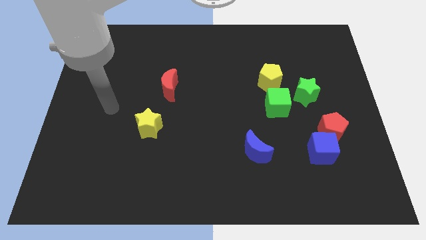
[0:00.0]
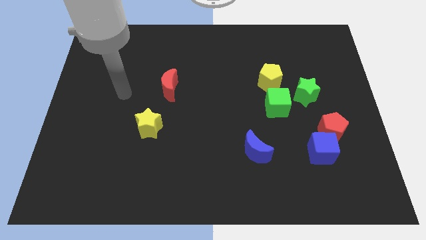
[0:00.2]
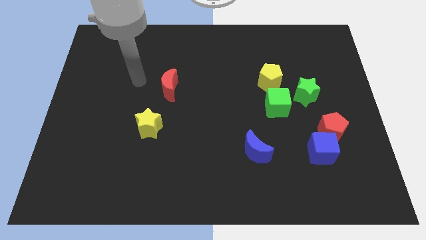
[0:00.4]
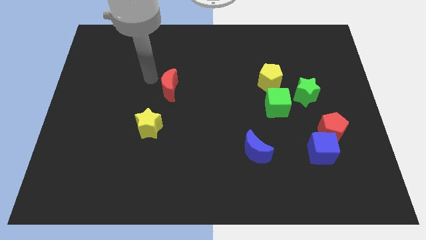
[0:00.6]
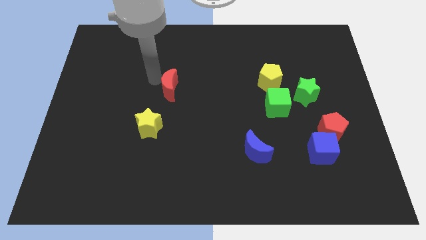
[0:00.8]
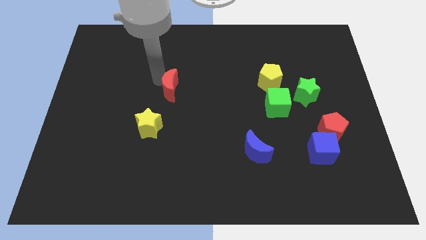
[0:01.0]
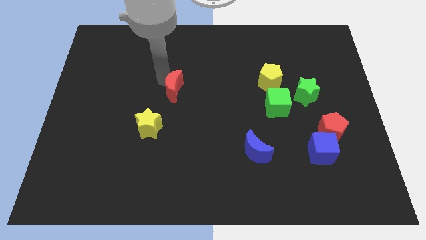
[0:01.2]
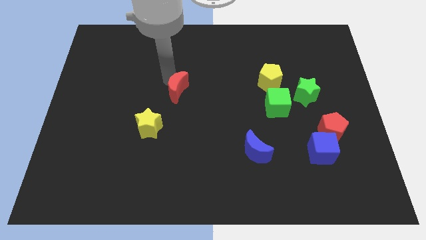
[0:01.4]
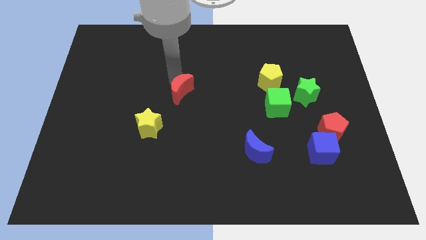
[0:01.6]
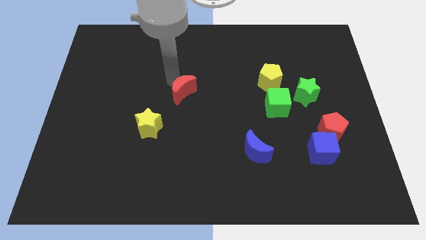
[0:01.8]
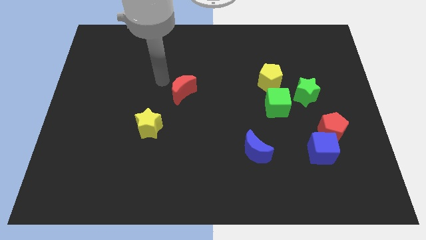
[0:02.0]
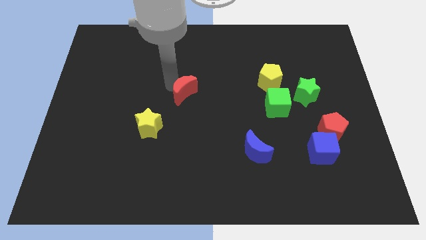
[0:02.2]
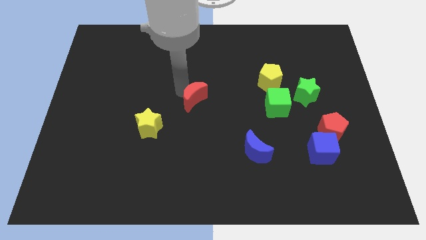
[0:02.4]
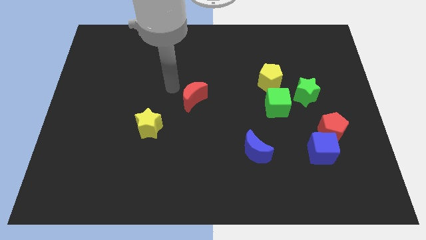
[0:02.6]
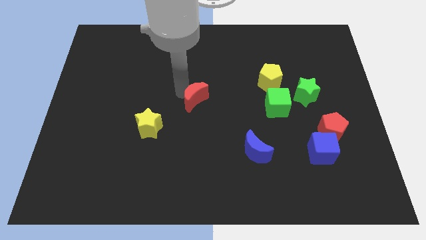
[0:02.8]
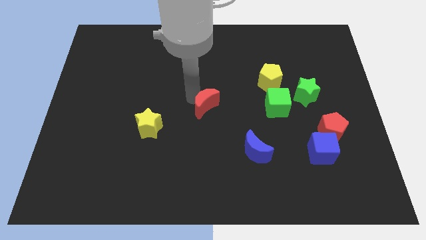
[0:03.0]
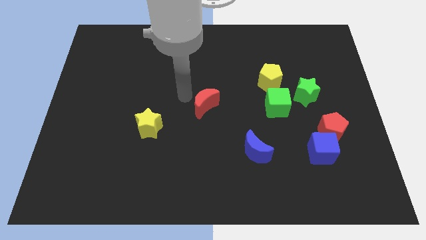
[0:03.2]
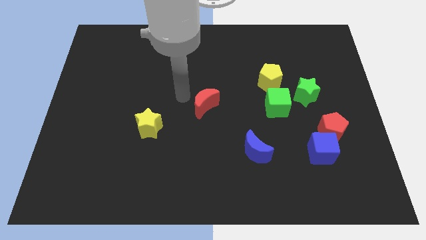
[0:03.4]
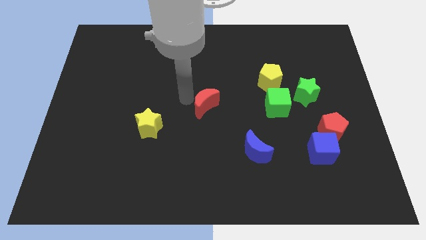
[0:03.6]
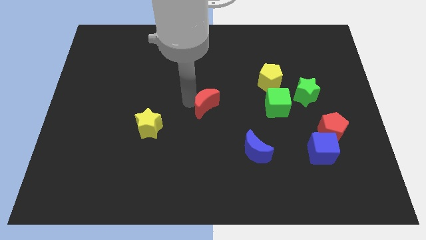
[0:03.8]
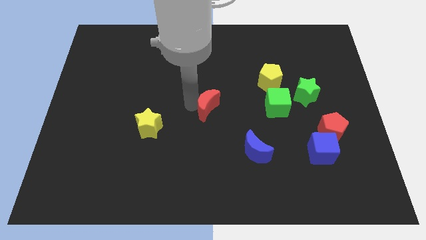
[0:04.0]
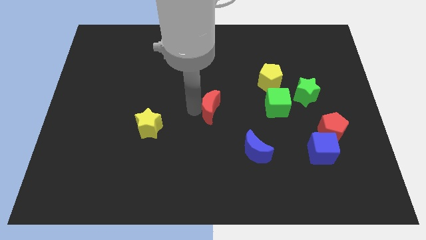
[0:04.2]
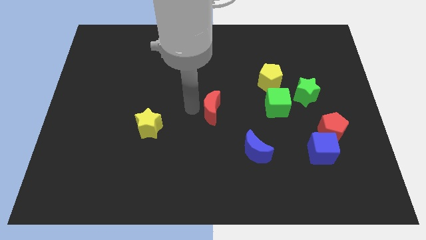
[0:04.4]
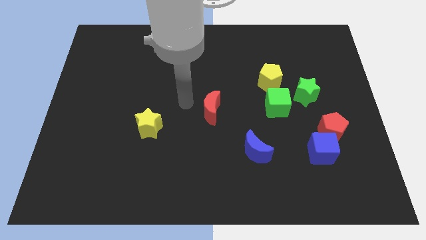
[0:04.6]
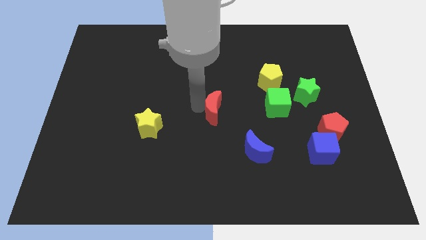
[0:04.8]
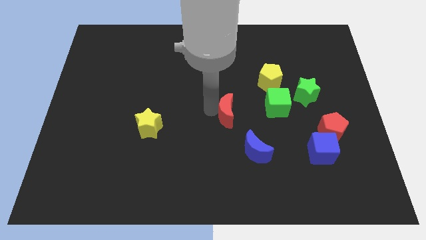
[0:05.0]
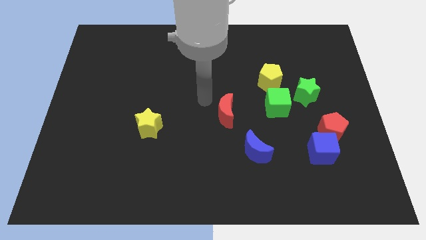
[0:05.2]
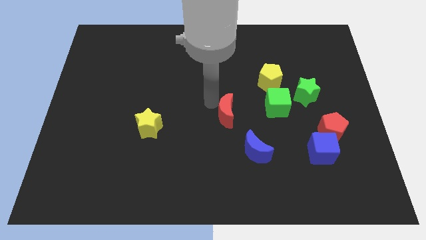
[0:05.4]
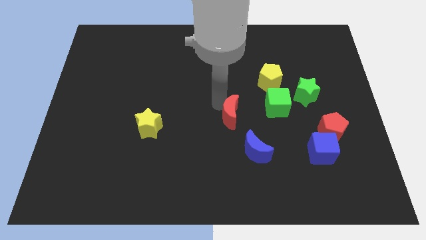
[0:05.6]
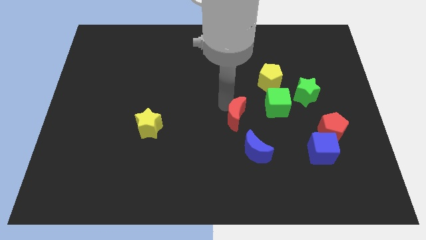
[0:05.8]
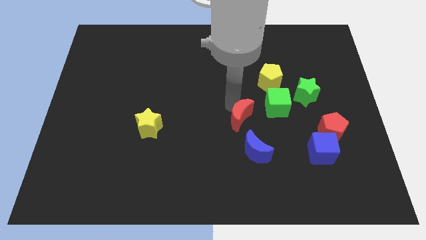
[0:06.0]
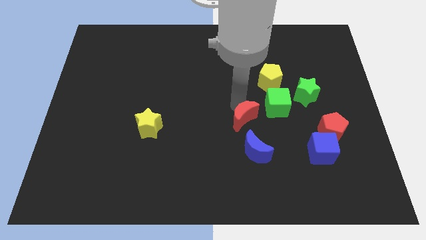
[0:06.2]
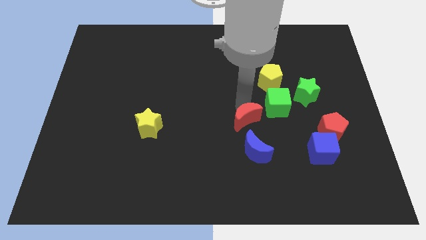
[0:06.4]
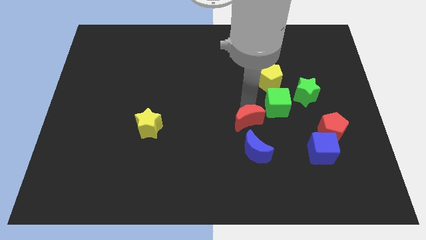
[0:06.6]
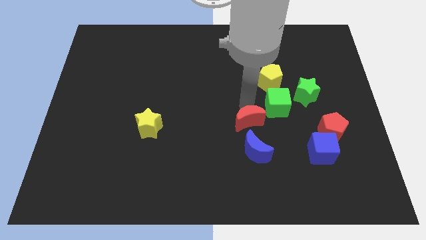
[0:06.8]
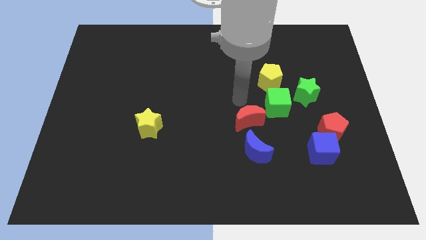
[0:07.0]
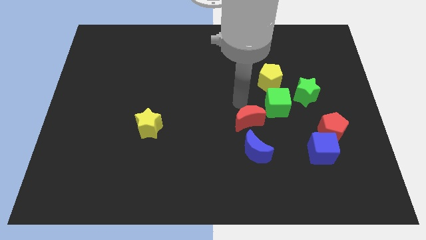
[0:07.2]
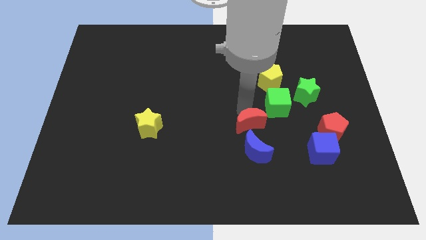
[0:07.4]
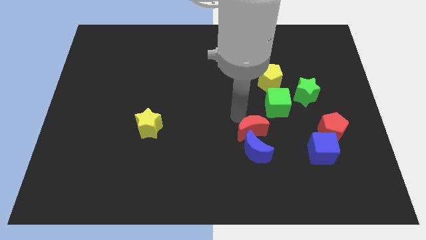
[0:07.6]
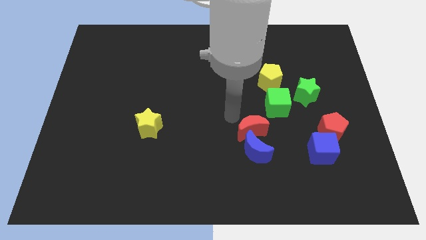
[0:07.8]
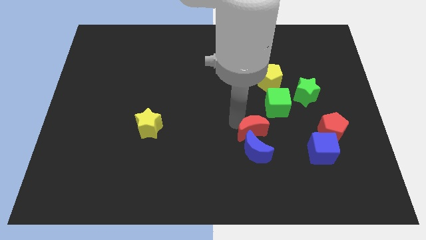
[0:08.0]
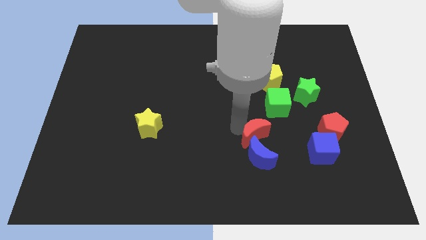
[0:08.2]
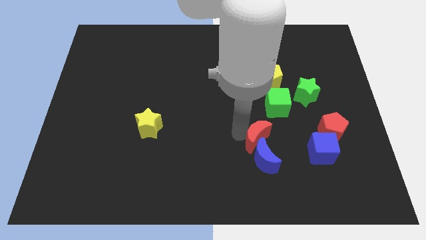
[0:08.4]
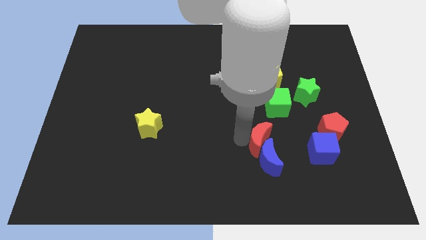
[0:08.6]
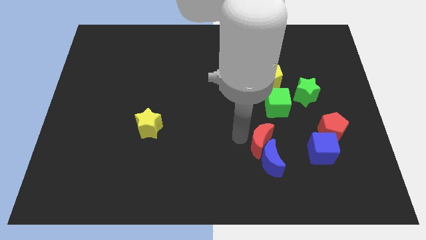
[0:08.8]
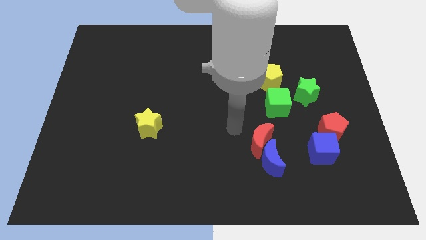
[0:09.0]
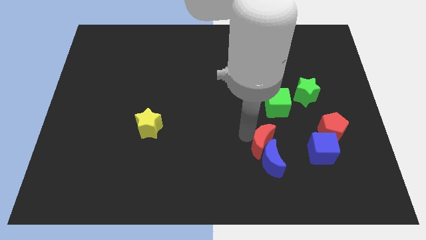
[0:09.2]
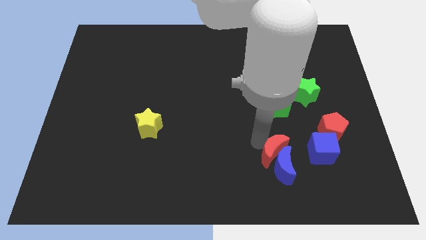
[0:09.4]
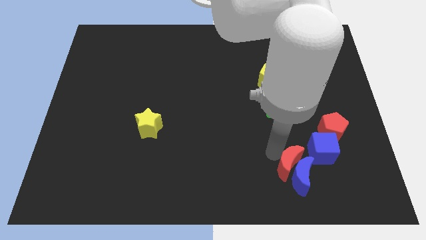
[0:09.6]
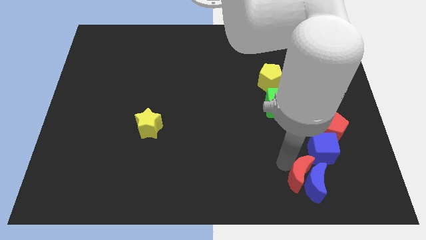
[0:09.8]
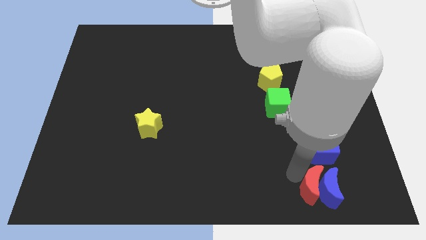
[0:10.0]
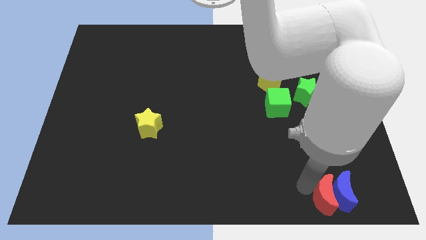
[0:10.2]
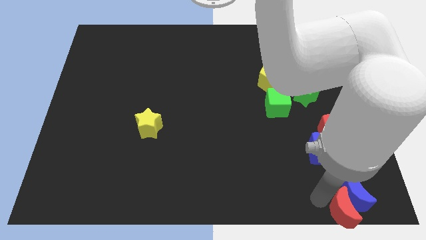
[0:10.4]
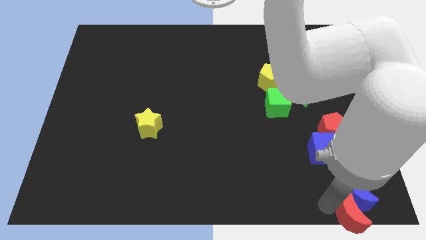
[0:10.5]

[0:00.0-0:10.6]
slide the red moon to the bottom right

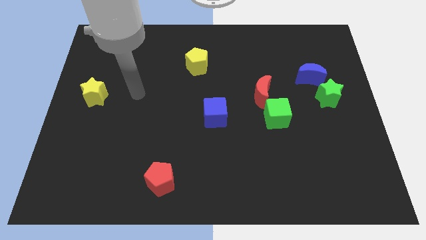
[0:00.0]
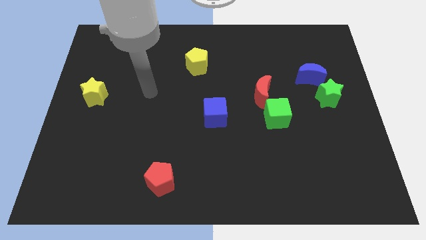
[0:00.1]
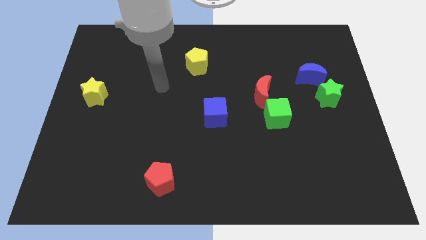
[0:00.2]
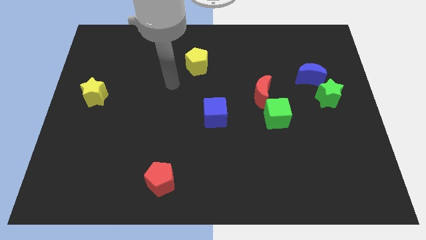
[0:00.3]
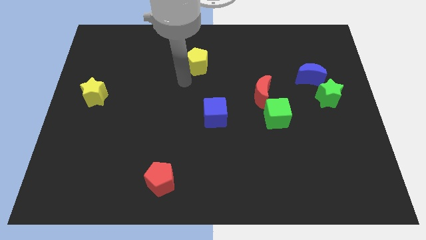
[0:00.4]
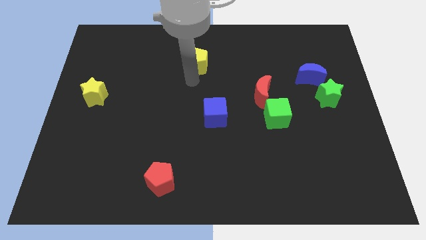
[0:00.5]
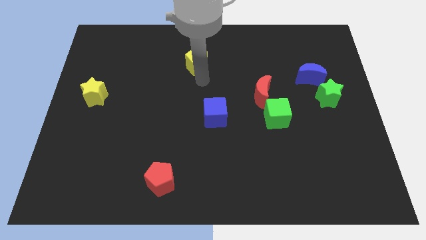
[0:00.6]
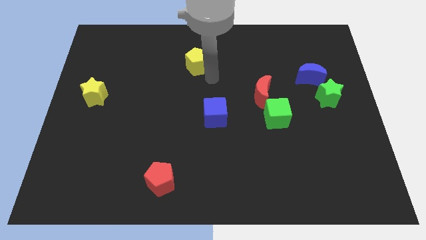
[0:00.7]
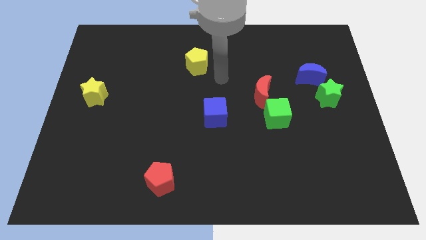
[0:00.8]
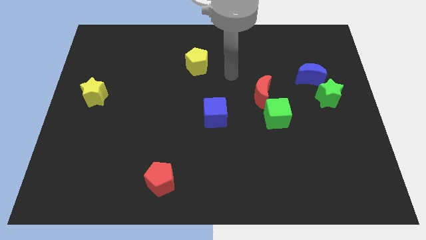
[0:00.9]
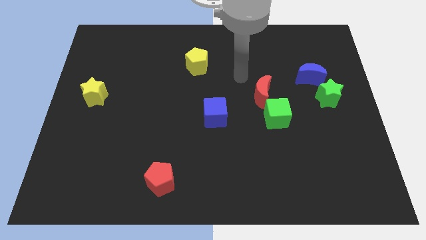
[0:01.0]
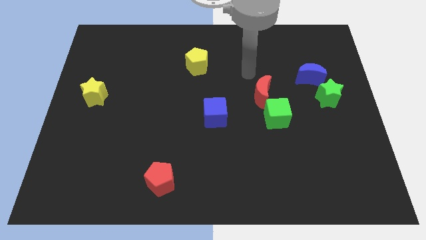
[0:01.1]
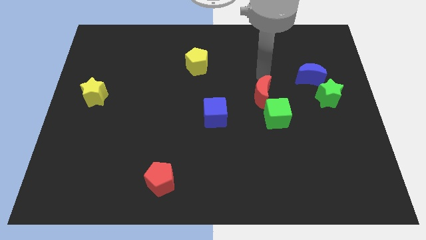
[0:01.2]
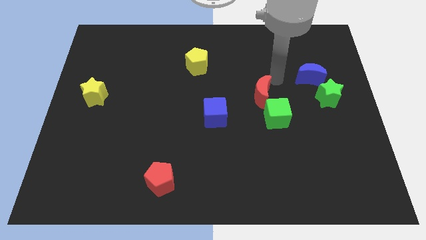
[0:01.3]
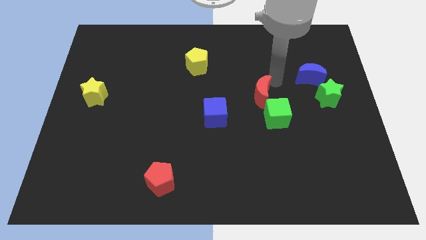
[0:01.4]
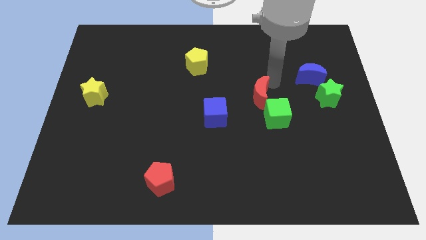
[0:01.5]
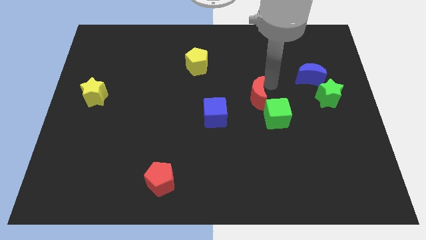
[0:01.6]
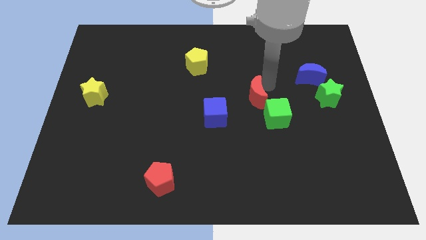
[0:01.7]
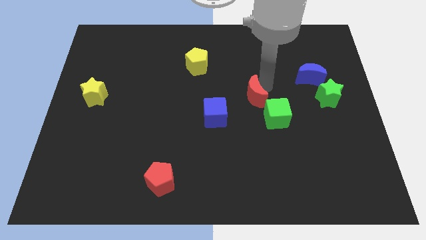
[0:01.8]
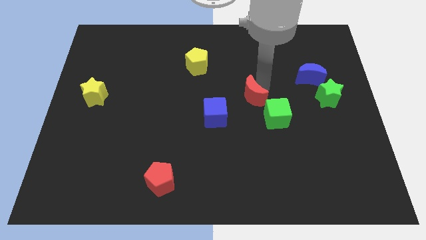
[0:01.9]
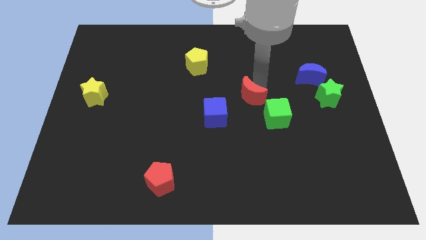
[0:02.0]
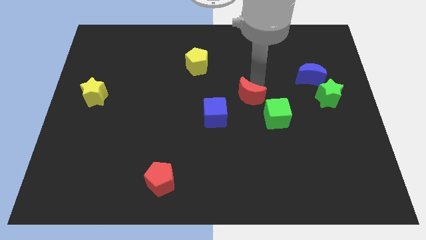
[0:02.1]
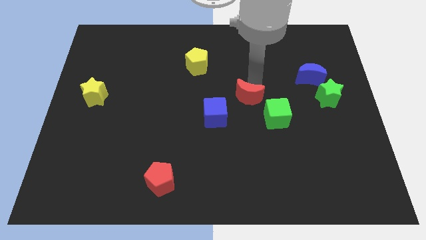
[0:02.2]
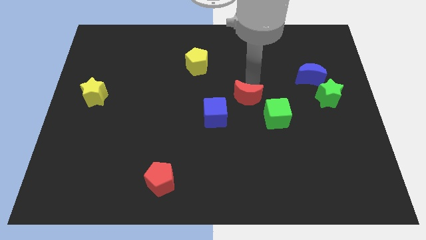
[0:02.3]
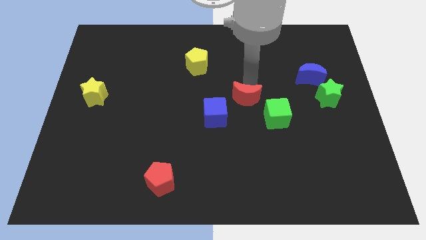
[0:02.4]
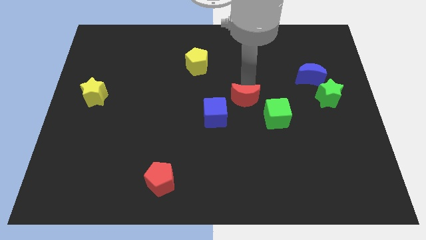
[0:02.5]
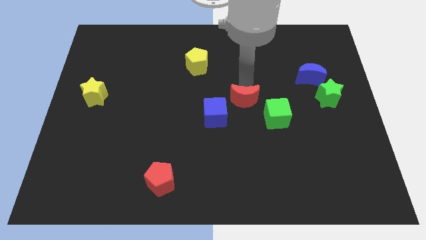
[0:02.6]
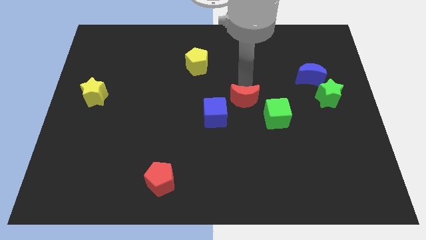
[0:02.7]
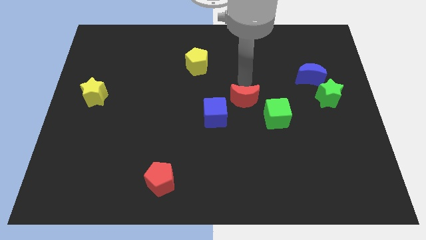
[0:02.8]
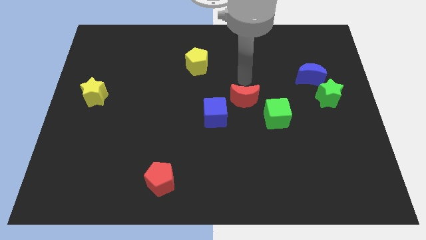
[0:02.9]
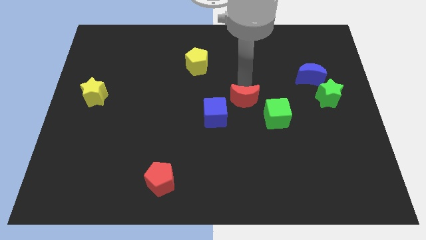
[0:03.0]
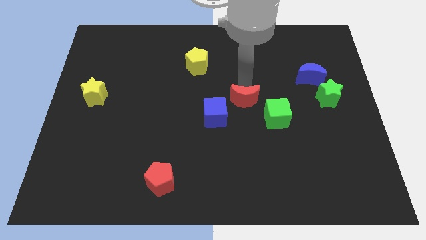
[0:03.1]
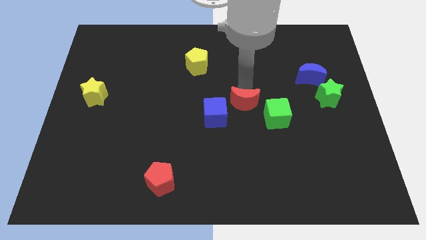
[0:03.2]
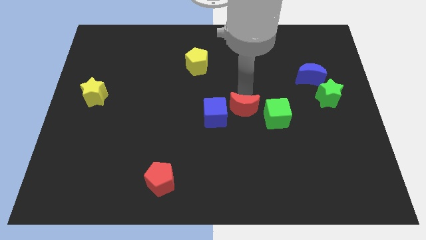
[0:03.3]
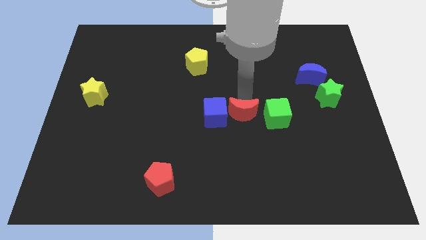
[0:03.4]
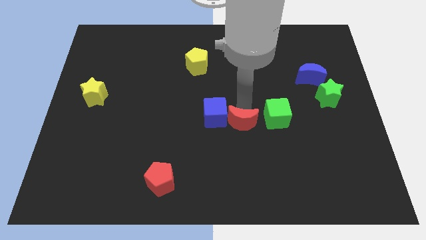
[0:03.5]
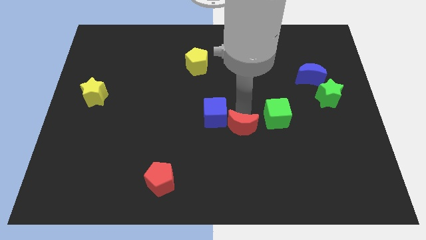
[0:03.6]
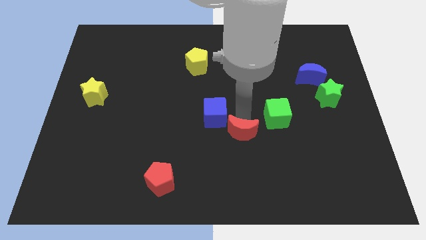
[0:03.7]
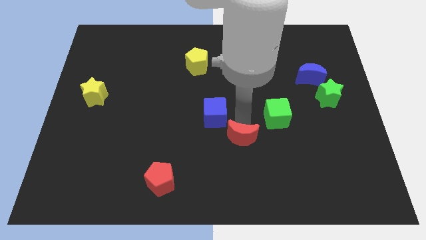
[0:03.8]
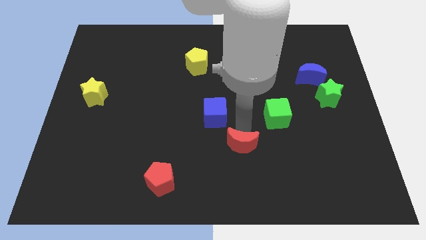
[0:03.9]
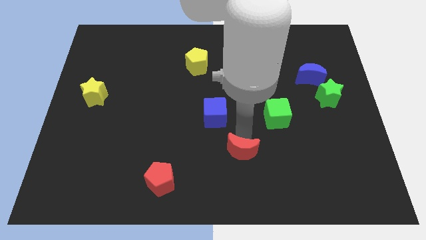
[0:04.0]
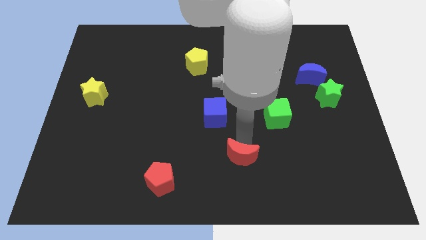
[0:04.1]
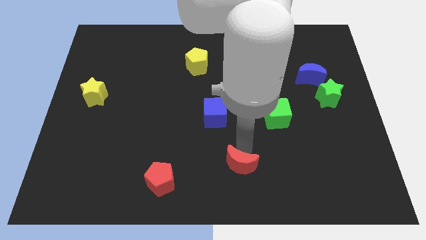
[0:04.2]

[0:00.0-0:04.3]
push the red moon to the bottom side
